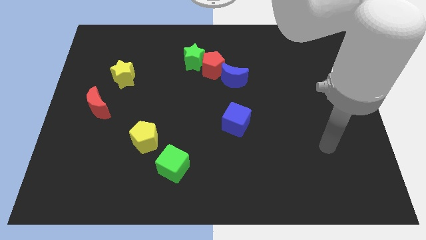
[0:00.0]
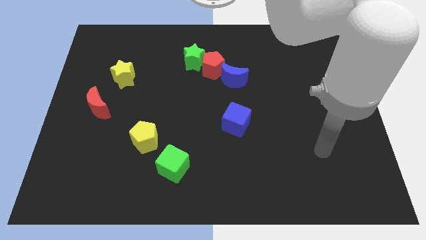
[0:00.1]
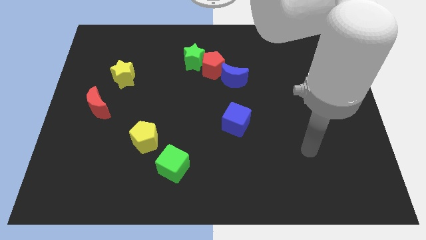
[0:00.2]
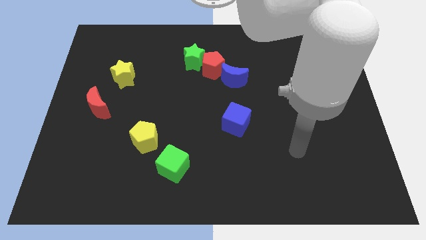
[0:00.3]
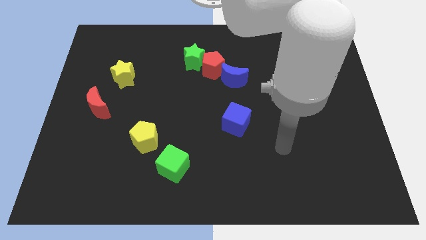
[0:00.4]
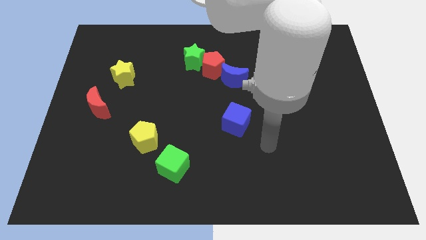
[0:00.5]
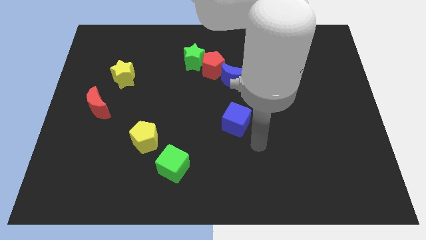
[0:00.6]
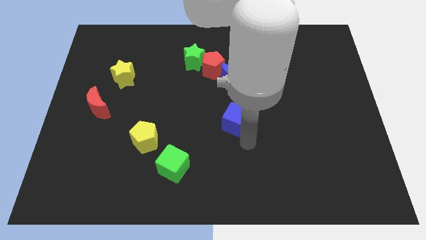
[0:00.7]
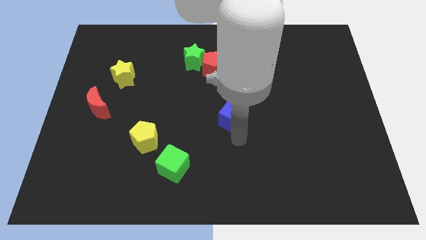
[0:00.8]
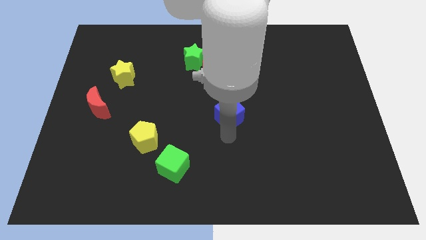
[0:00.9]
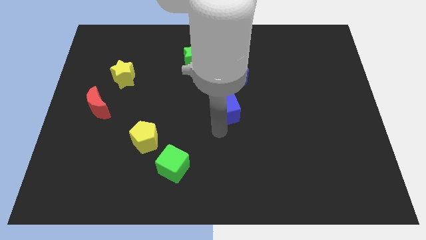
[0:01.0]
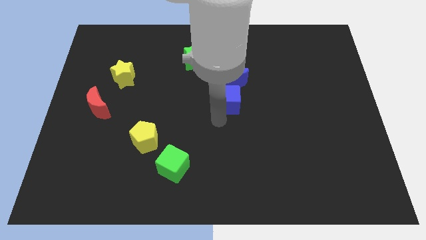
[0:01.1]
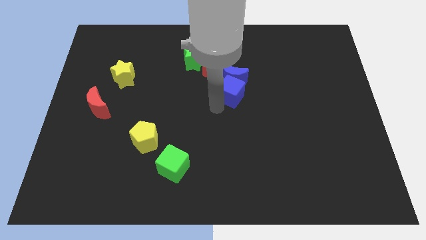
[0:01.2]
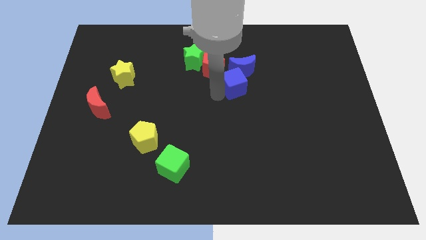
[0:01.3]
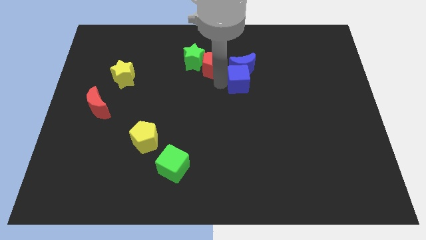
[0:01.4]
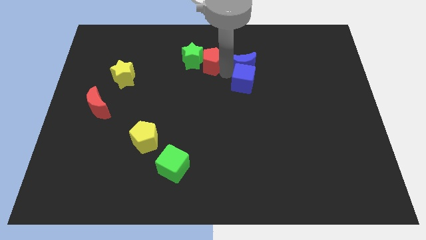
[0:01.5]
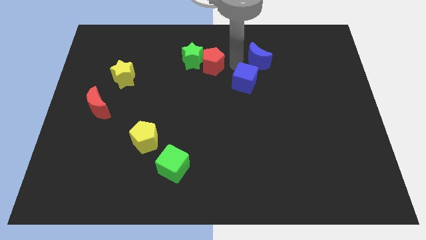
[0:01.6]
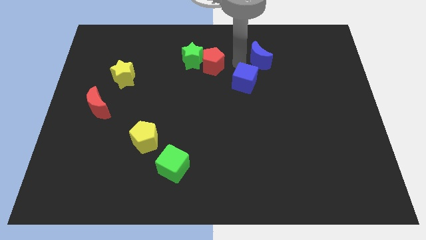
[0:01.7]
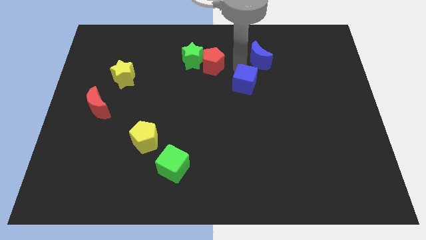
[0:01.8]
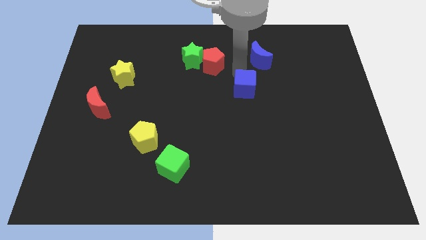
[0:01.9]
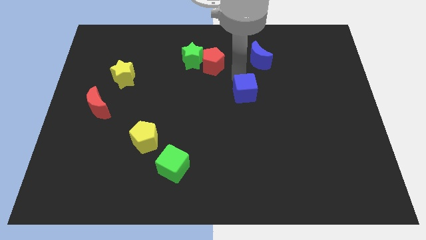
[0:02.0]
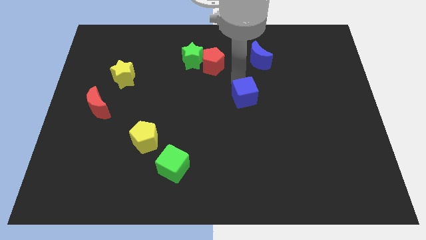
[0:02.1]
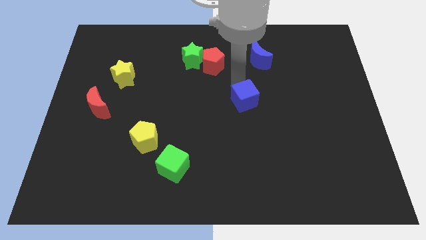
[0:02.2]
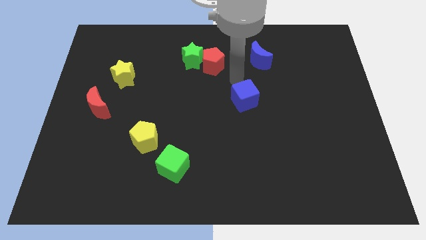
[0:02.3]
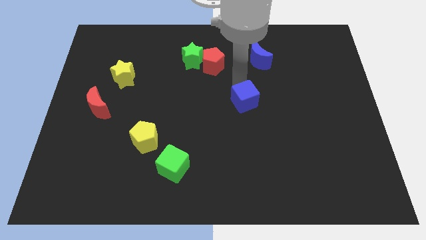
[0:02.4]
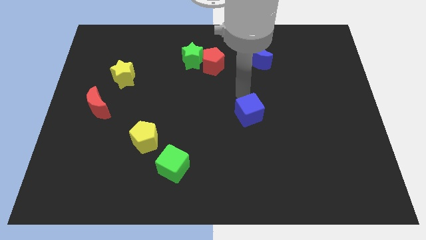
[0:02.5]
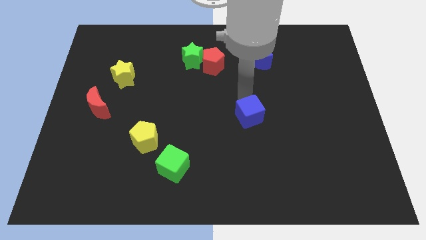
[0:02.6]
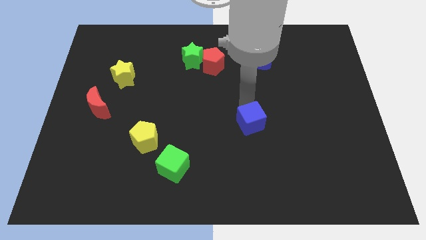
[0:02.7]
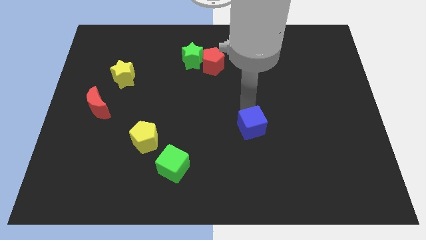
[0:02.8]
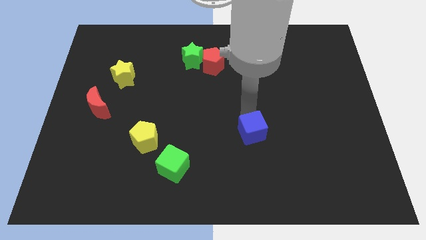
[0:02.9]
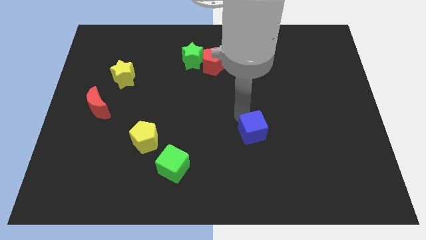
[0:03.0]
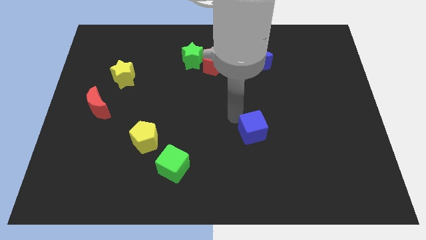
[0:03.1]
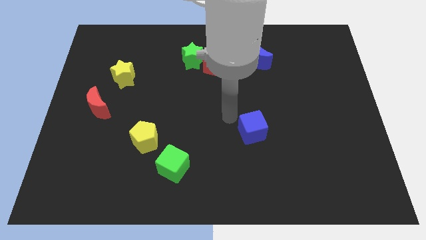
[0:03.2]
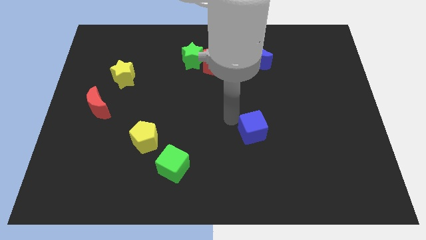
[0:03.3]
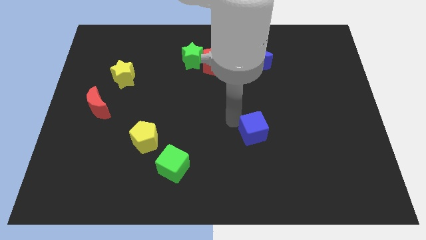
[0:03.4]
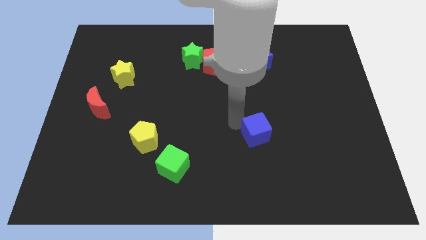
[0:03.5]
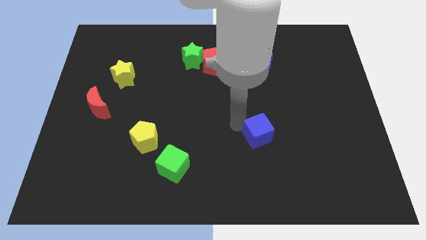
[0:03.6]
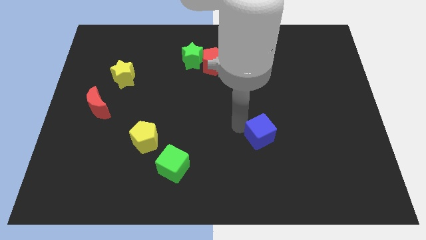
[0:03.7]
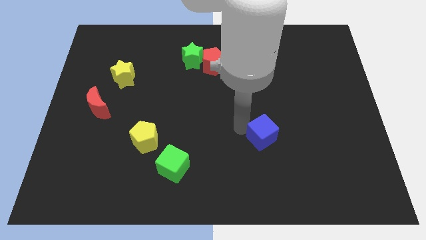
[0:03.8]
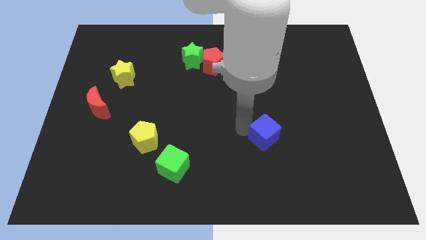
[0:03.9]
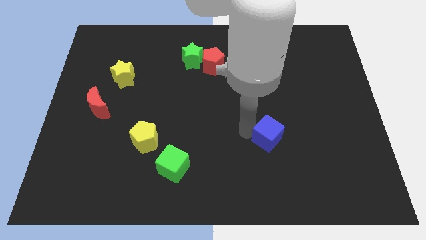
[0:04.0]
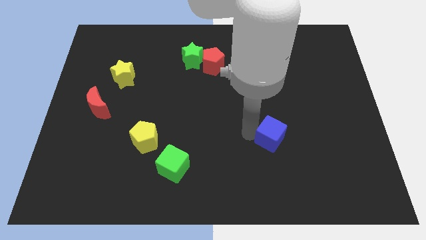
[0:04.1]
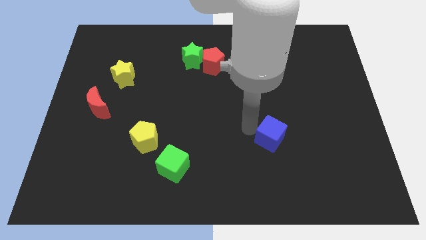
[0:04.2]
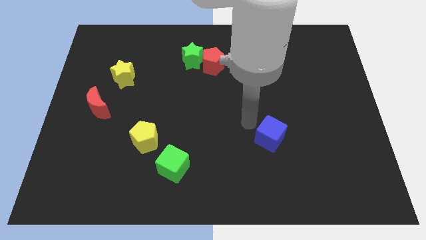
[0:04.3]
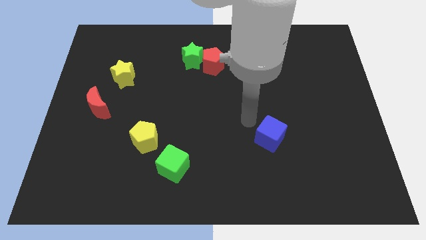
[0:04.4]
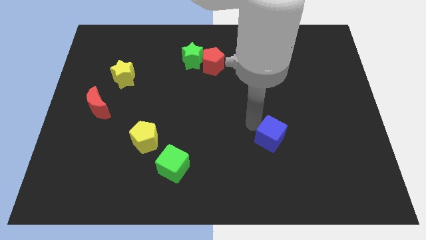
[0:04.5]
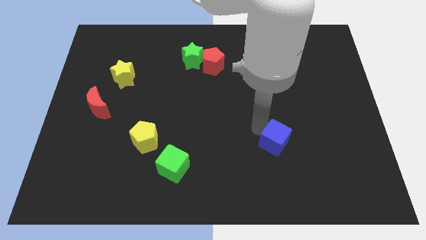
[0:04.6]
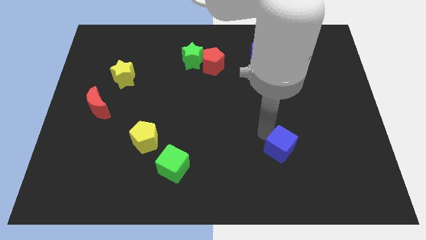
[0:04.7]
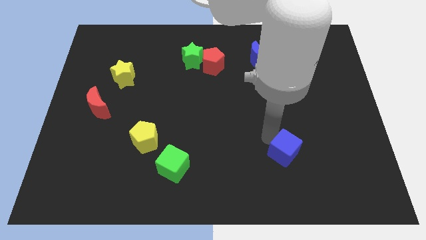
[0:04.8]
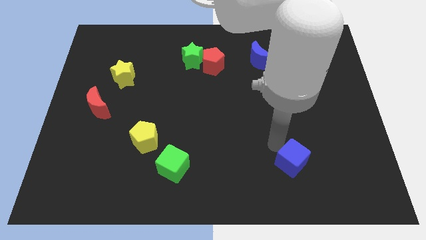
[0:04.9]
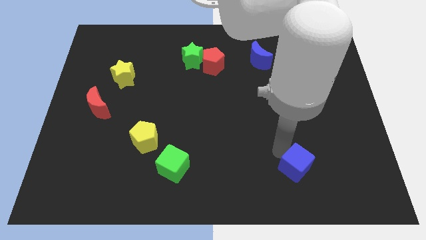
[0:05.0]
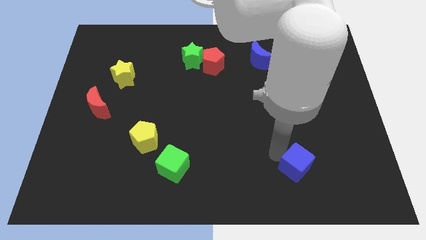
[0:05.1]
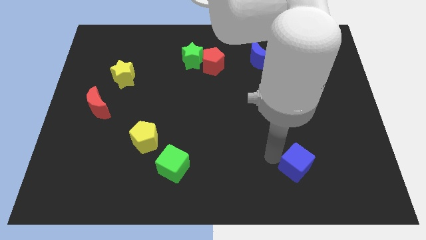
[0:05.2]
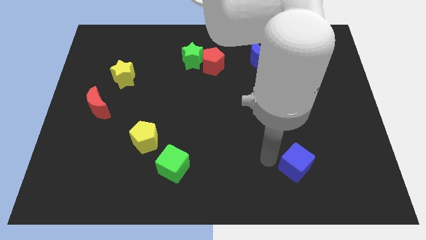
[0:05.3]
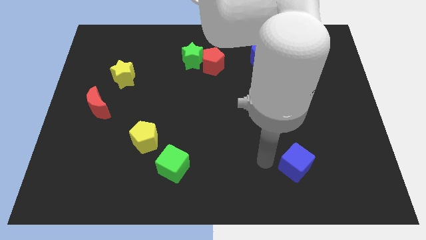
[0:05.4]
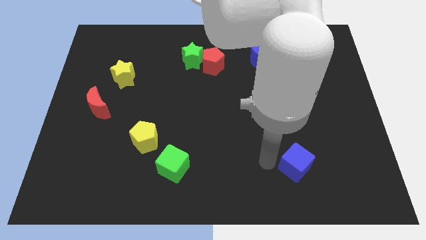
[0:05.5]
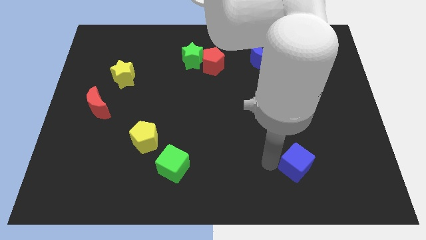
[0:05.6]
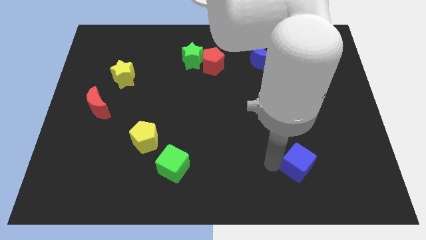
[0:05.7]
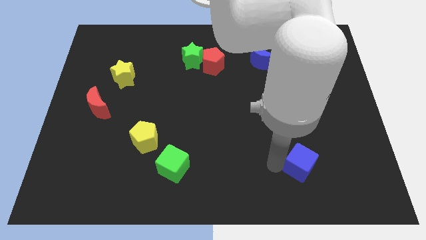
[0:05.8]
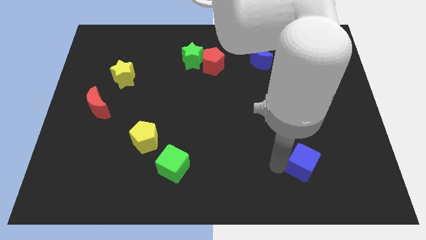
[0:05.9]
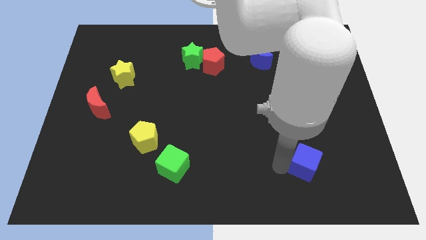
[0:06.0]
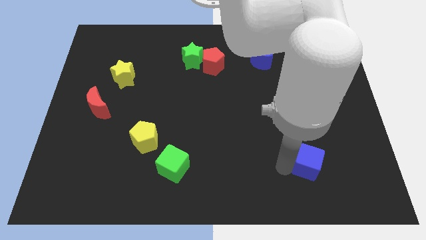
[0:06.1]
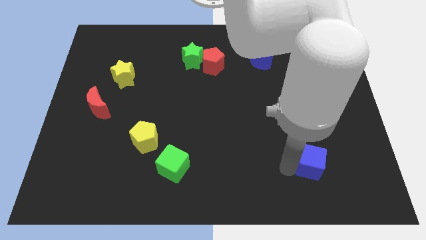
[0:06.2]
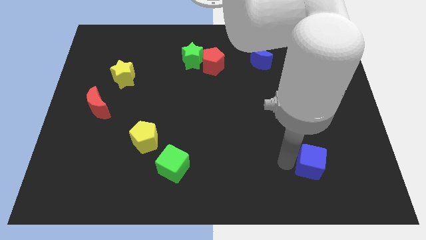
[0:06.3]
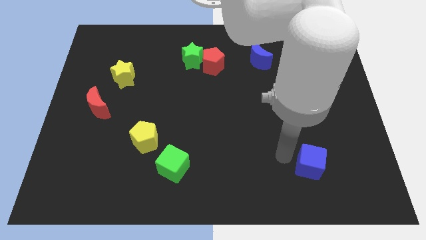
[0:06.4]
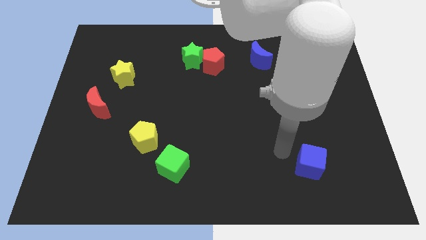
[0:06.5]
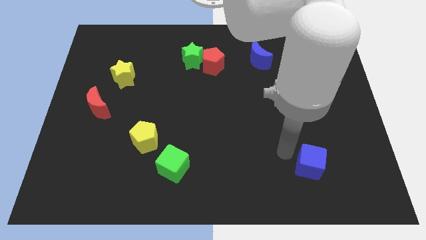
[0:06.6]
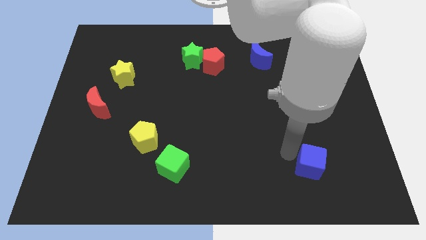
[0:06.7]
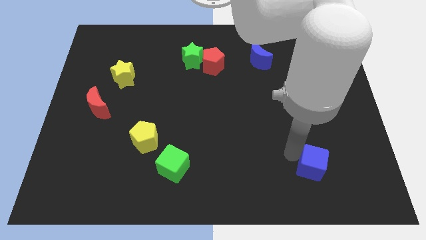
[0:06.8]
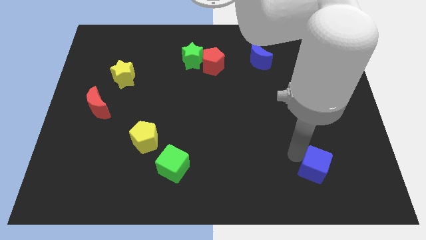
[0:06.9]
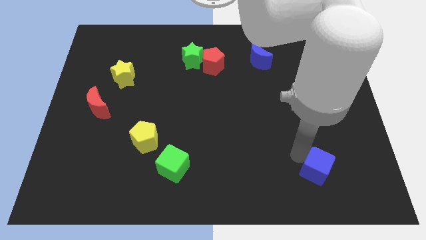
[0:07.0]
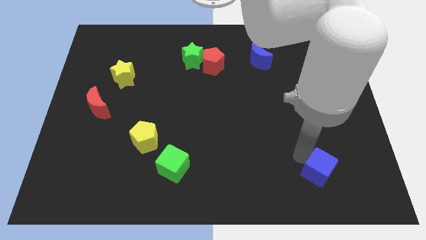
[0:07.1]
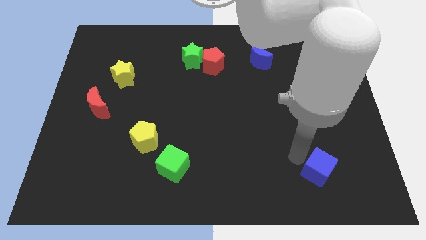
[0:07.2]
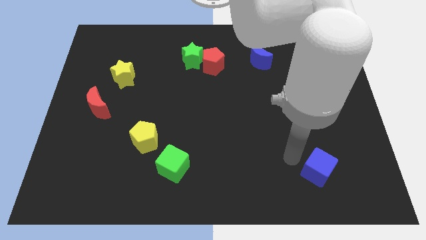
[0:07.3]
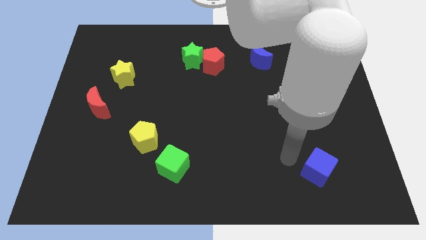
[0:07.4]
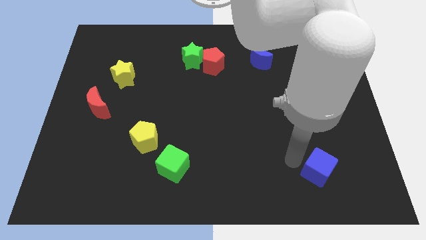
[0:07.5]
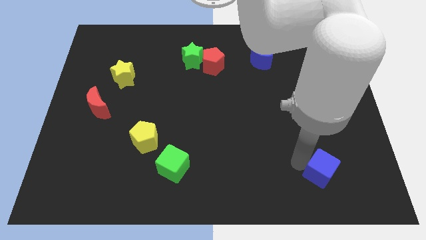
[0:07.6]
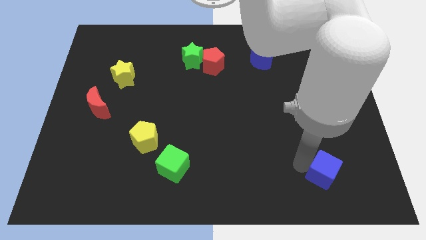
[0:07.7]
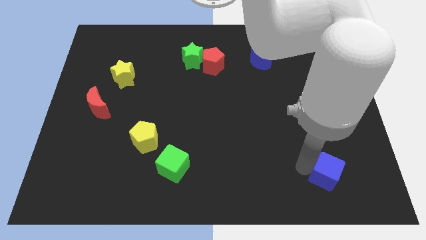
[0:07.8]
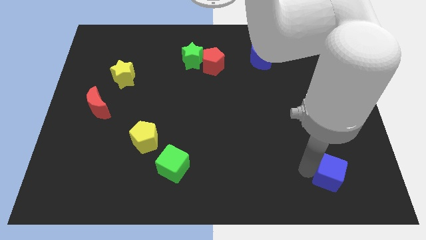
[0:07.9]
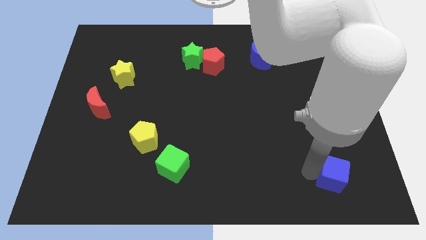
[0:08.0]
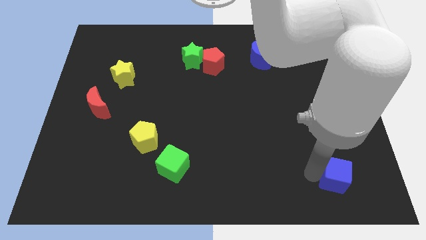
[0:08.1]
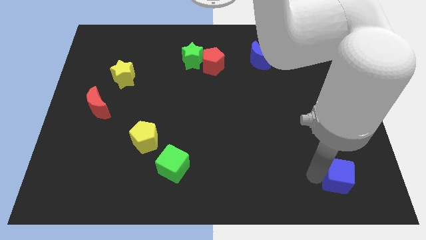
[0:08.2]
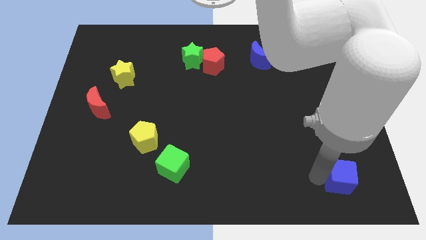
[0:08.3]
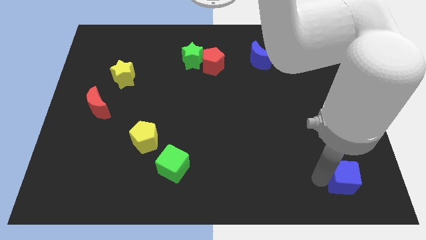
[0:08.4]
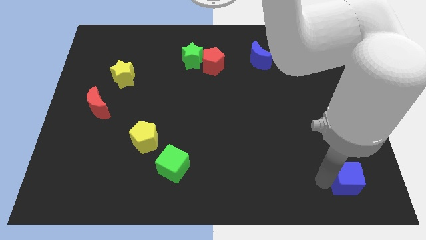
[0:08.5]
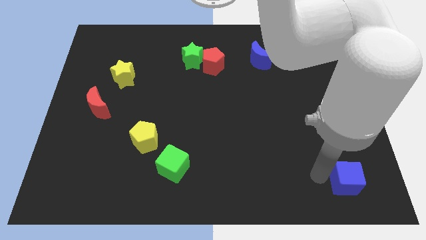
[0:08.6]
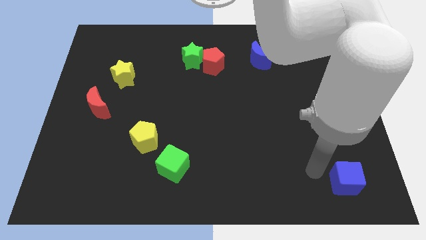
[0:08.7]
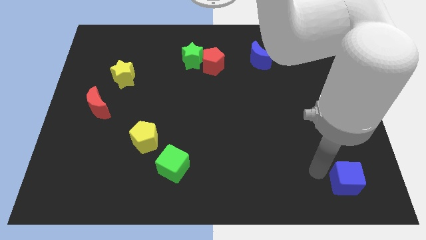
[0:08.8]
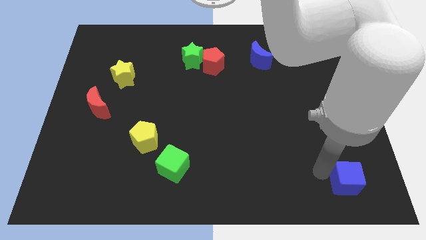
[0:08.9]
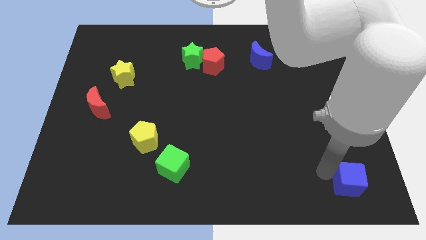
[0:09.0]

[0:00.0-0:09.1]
move the blue cube to the bottom right
